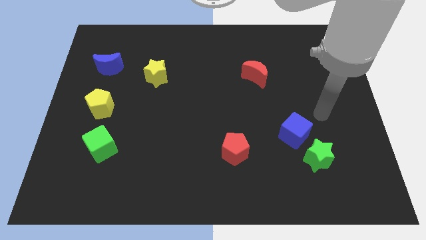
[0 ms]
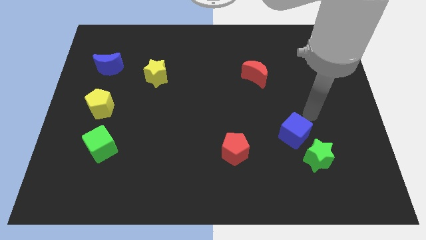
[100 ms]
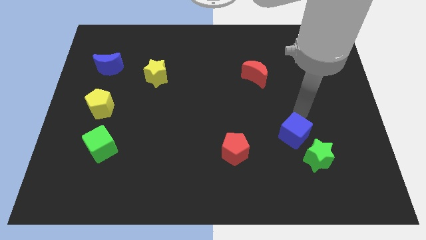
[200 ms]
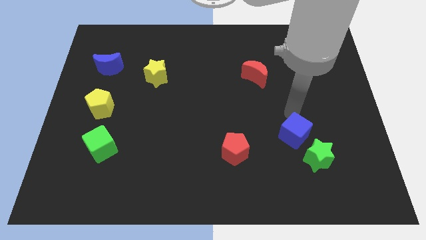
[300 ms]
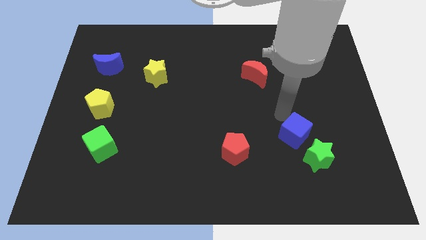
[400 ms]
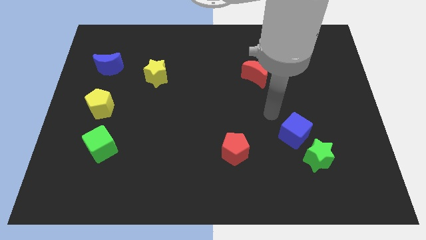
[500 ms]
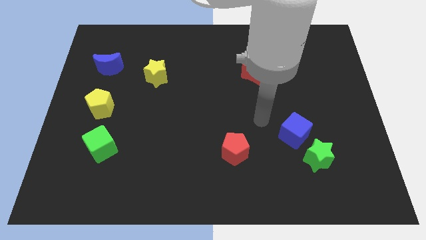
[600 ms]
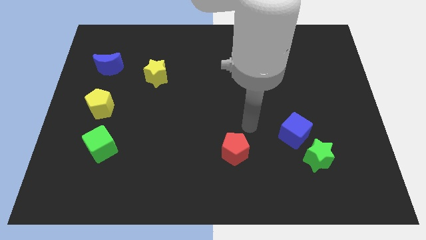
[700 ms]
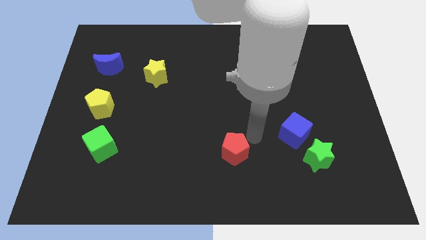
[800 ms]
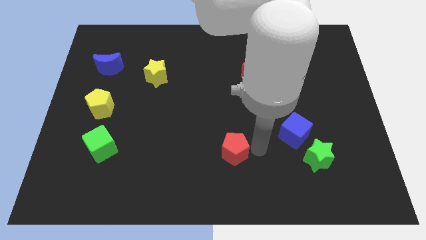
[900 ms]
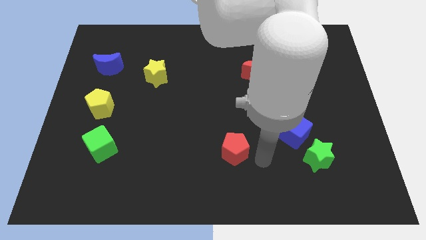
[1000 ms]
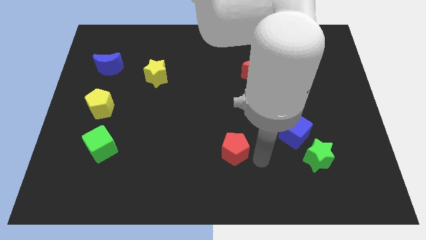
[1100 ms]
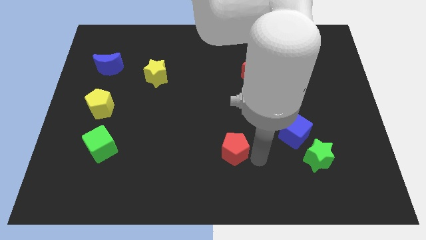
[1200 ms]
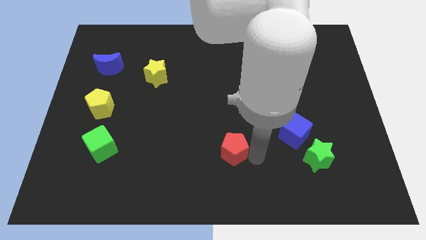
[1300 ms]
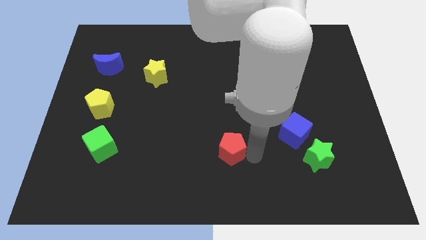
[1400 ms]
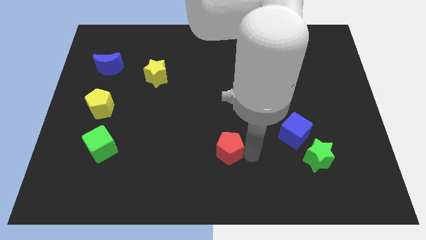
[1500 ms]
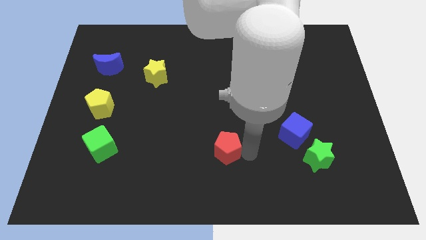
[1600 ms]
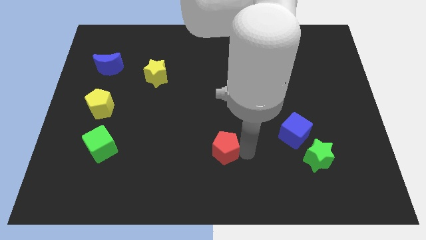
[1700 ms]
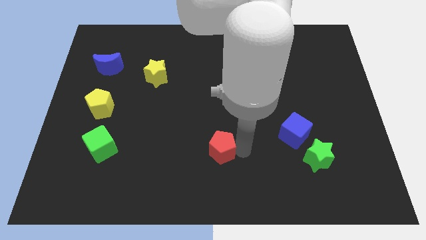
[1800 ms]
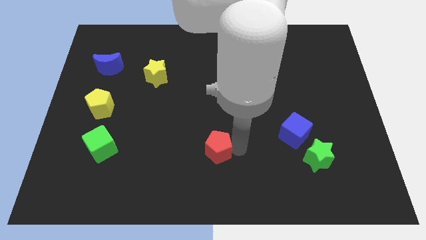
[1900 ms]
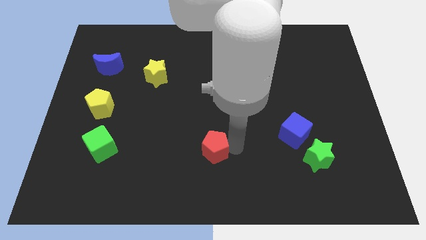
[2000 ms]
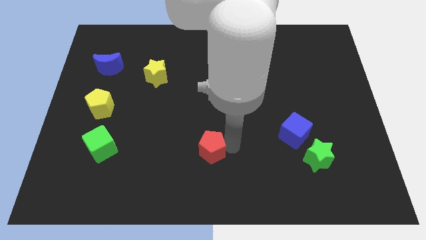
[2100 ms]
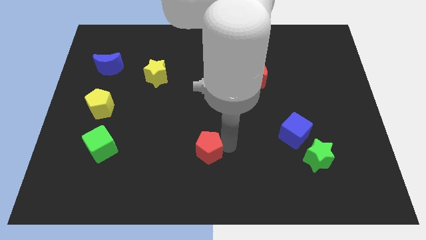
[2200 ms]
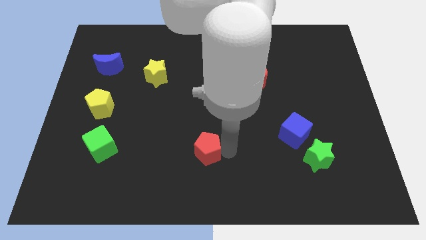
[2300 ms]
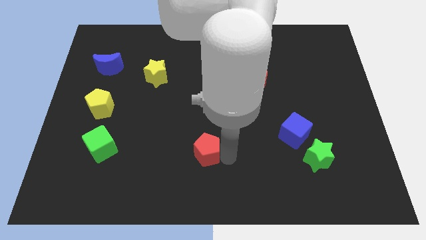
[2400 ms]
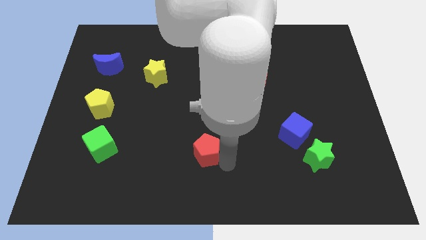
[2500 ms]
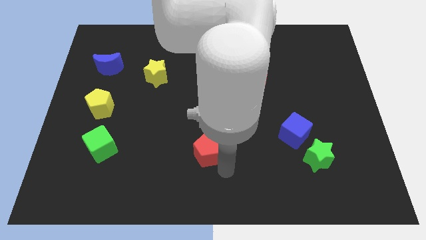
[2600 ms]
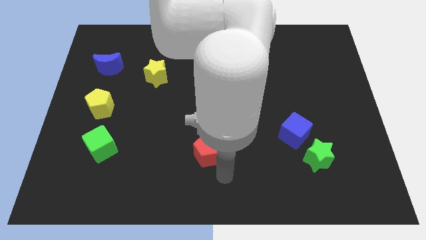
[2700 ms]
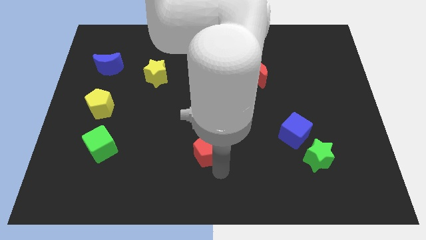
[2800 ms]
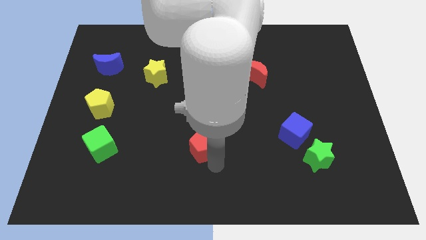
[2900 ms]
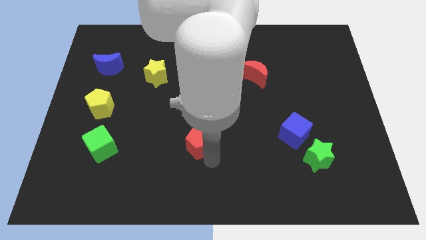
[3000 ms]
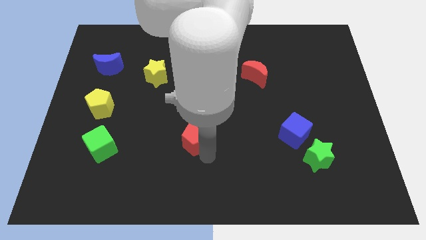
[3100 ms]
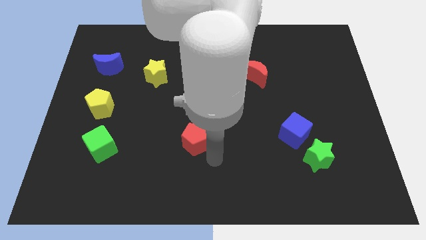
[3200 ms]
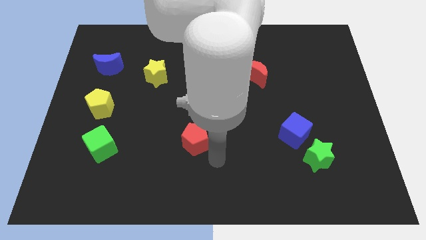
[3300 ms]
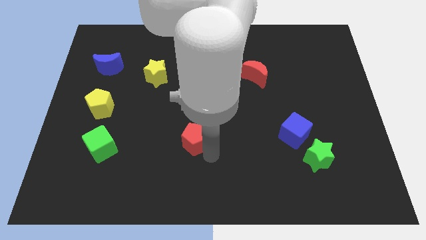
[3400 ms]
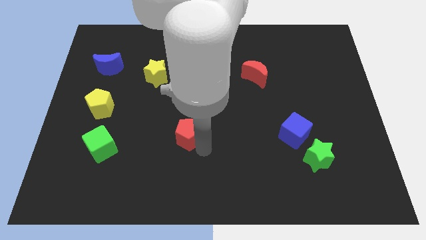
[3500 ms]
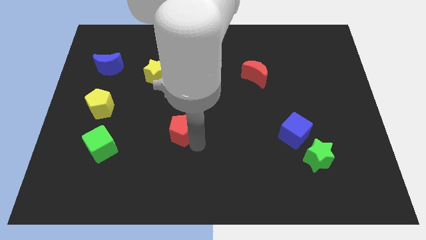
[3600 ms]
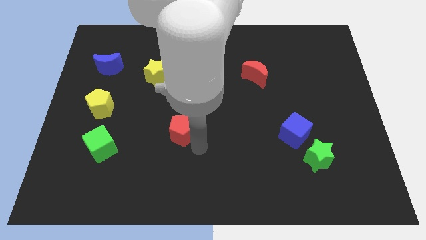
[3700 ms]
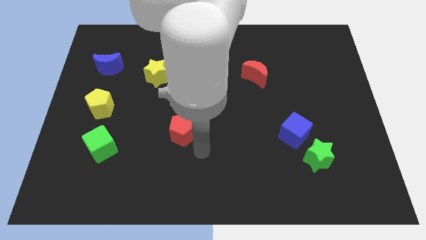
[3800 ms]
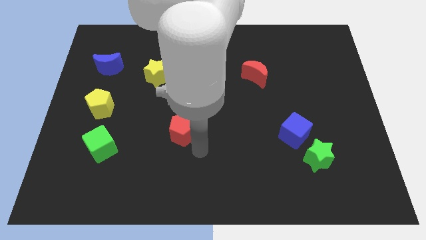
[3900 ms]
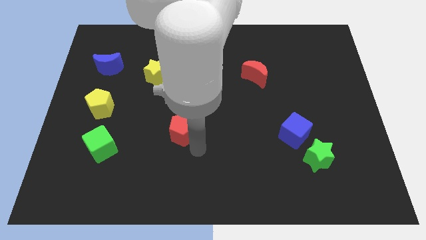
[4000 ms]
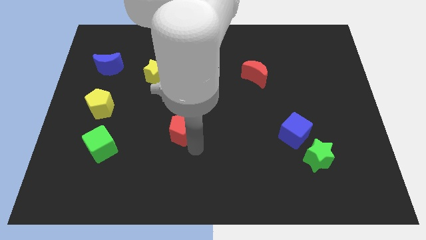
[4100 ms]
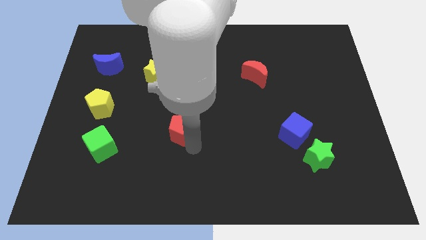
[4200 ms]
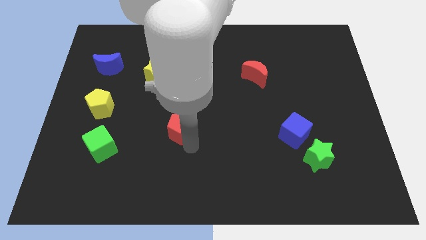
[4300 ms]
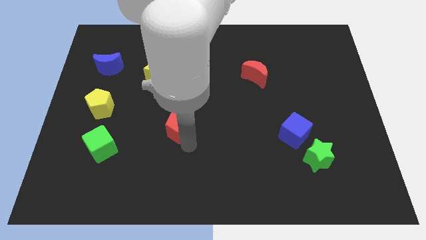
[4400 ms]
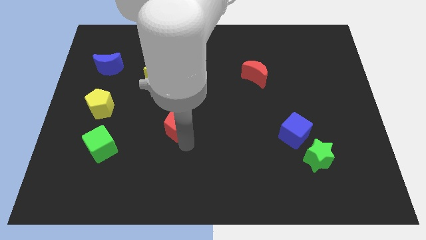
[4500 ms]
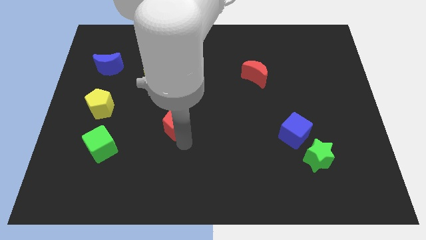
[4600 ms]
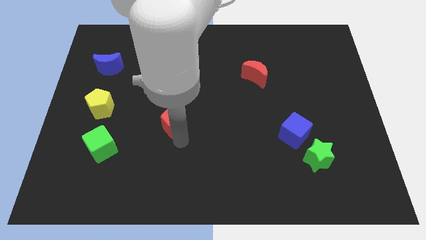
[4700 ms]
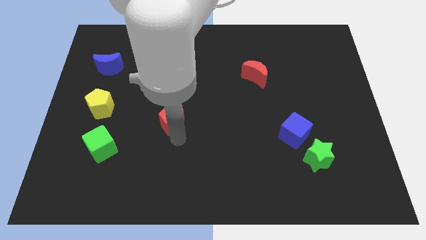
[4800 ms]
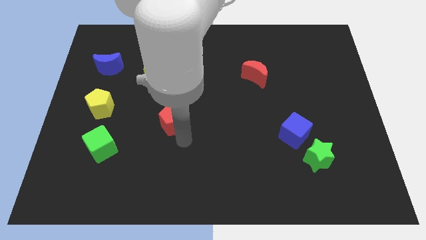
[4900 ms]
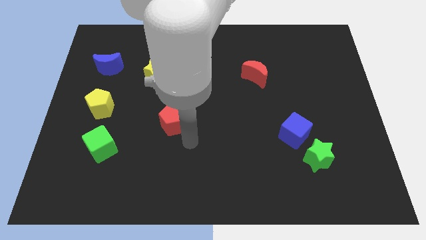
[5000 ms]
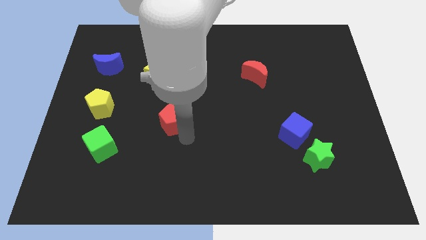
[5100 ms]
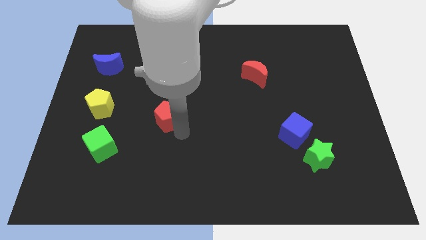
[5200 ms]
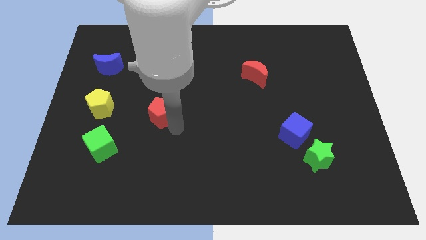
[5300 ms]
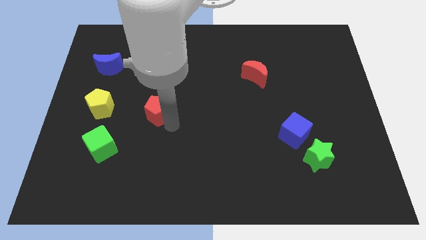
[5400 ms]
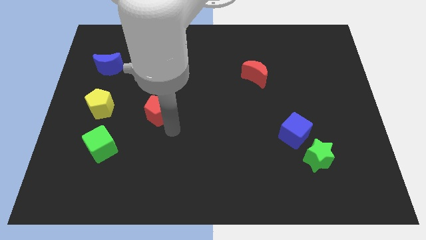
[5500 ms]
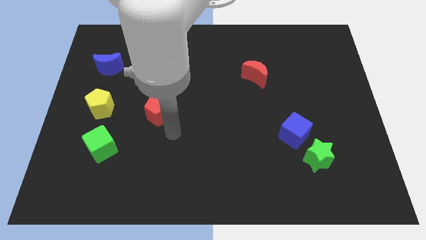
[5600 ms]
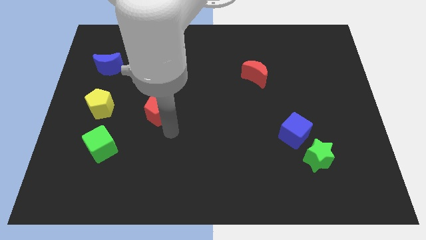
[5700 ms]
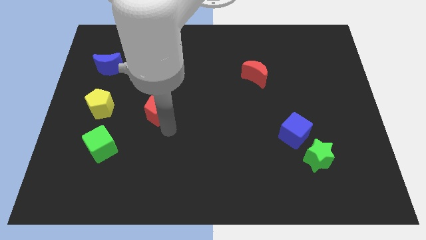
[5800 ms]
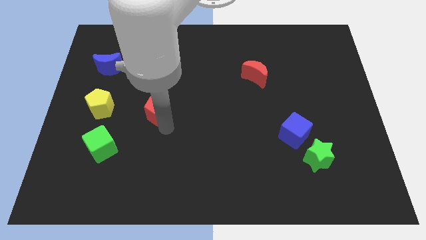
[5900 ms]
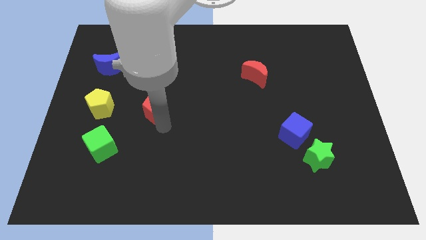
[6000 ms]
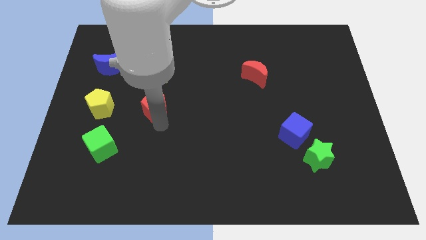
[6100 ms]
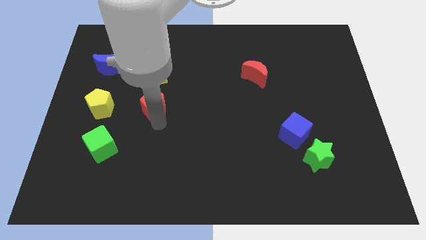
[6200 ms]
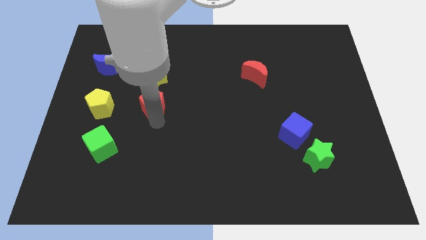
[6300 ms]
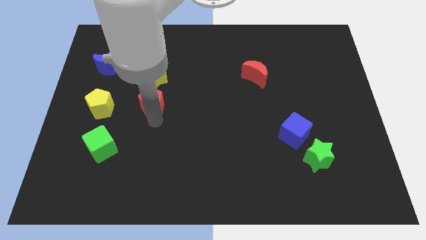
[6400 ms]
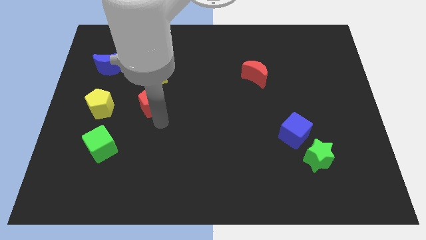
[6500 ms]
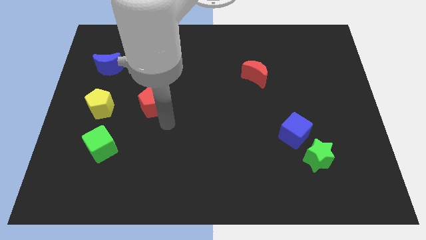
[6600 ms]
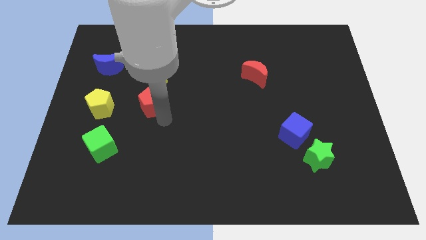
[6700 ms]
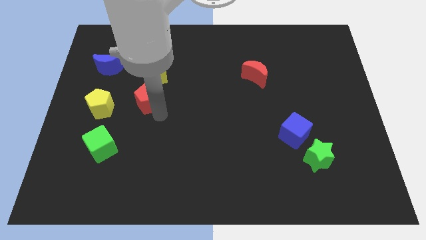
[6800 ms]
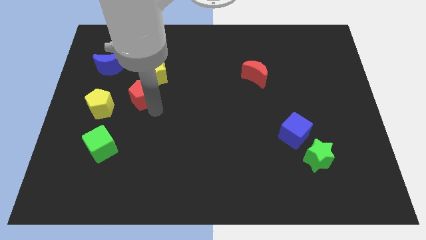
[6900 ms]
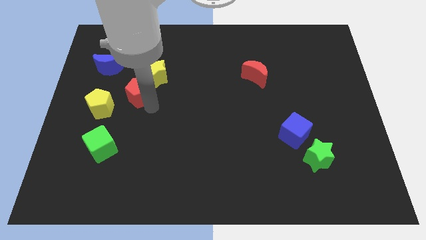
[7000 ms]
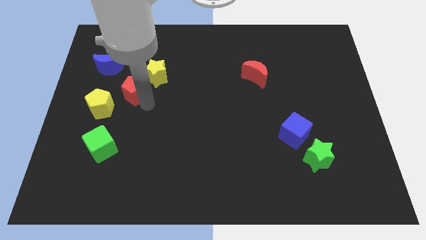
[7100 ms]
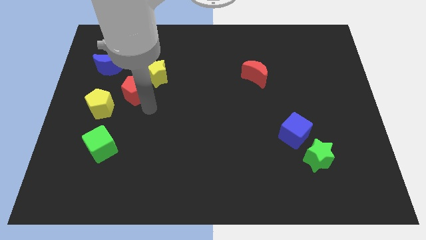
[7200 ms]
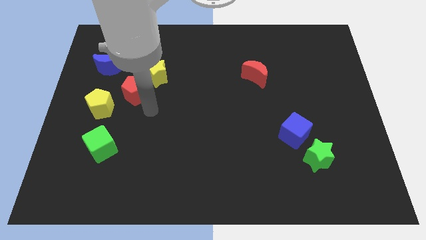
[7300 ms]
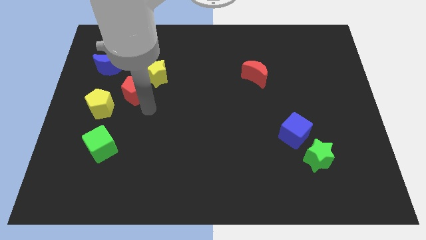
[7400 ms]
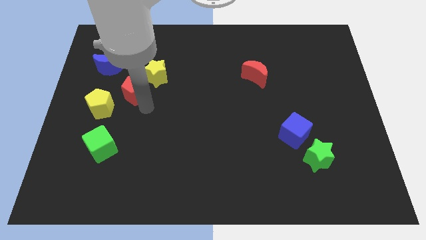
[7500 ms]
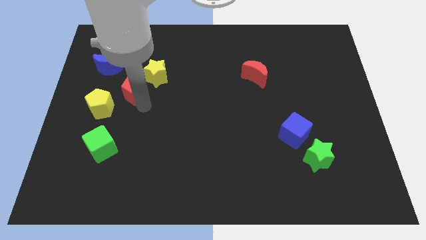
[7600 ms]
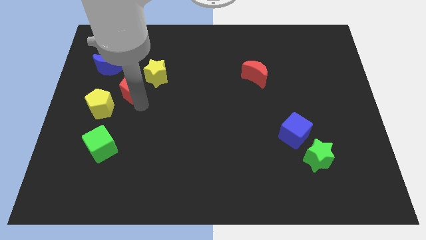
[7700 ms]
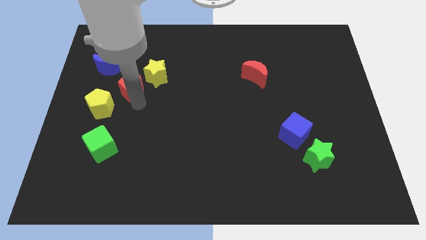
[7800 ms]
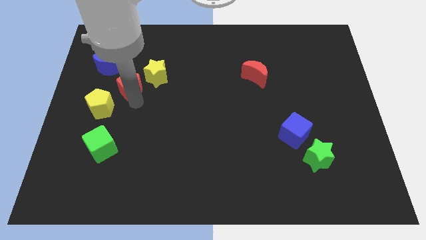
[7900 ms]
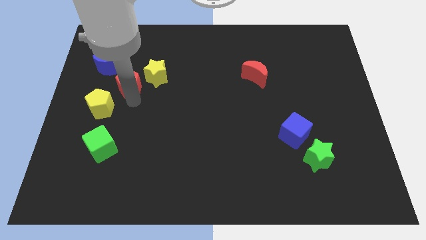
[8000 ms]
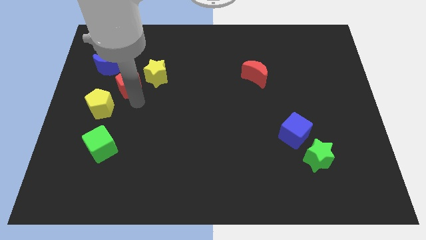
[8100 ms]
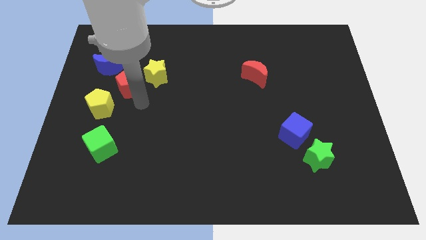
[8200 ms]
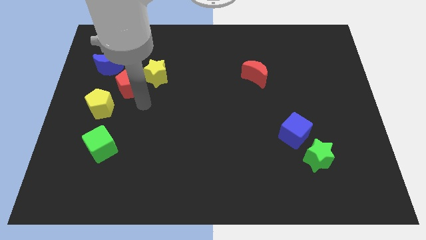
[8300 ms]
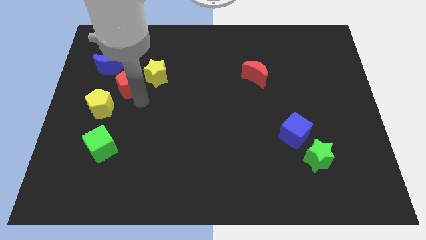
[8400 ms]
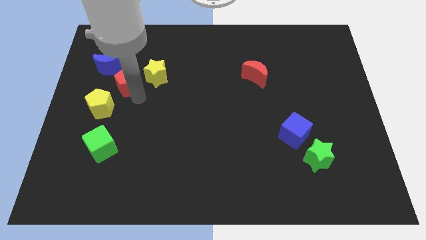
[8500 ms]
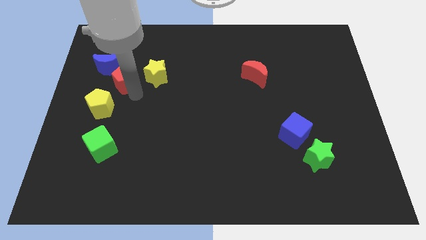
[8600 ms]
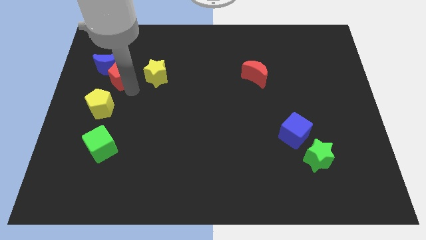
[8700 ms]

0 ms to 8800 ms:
move the red pentagon close to the blue moon
